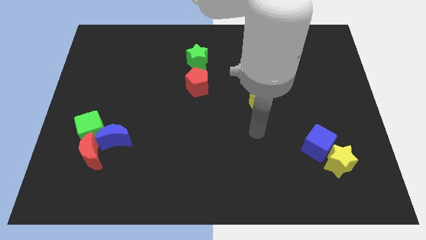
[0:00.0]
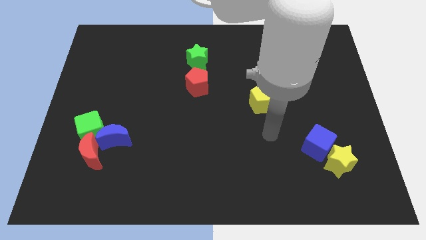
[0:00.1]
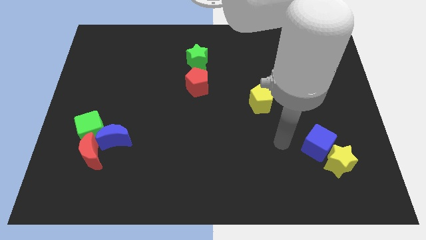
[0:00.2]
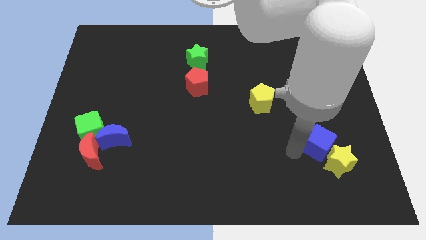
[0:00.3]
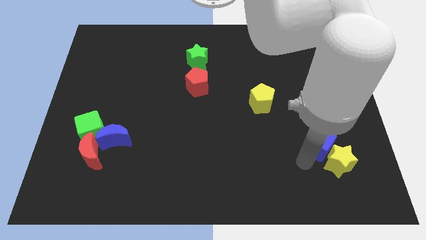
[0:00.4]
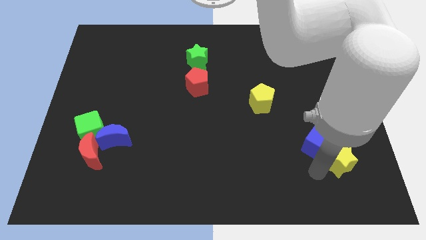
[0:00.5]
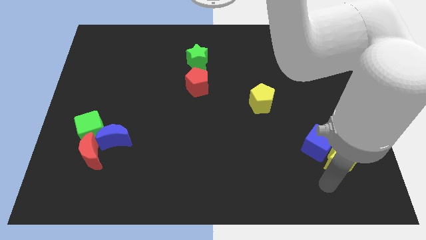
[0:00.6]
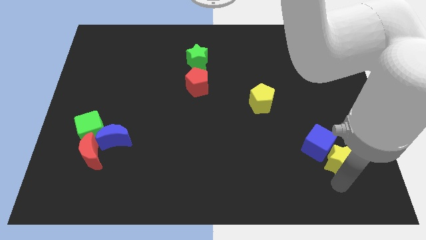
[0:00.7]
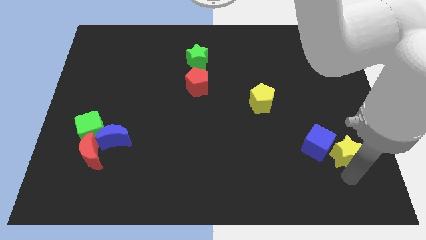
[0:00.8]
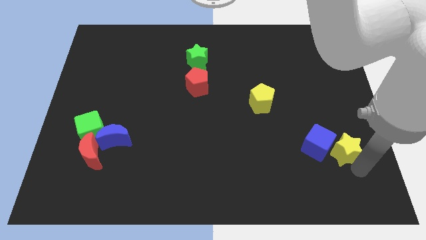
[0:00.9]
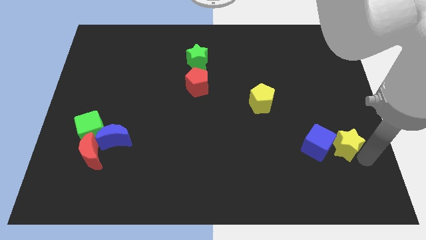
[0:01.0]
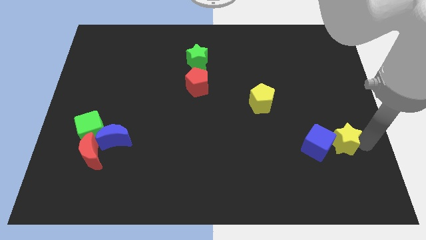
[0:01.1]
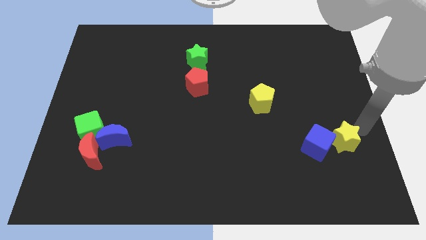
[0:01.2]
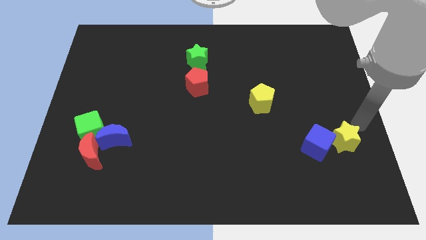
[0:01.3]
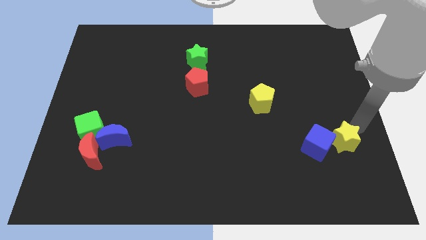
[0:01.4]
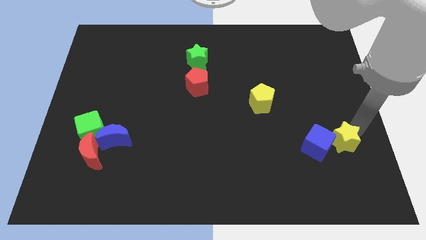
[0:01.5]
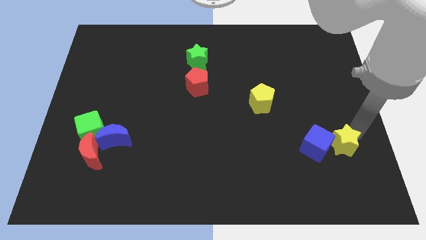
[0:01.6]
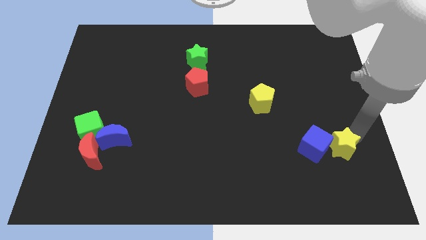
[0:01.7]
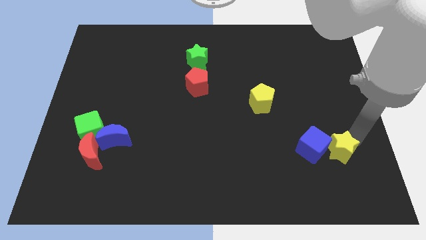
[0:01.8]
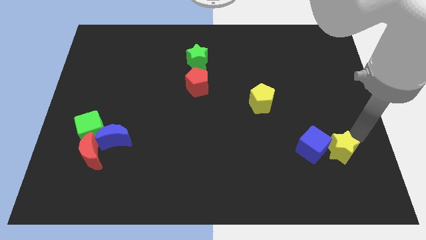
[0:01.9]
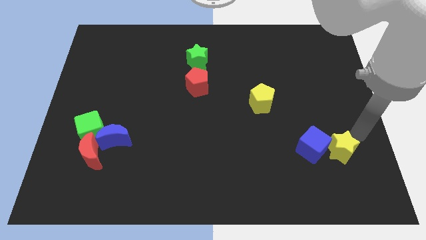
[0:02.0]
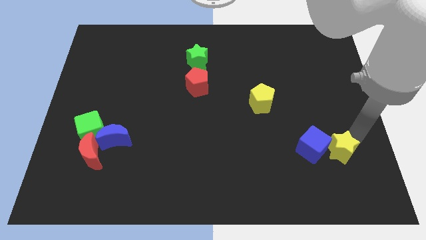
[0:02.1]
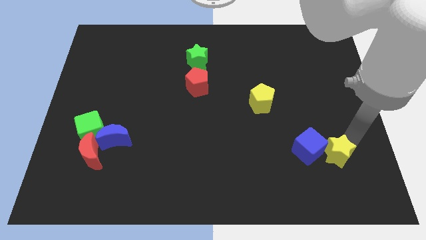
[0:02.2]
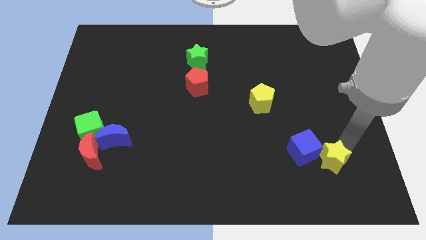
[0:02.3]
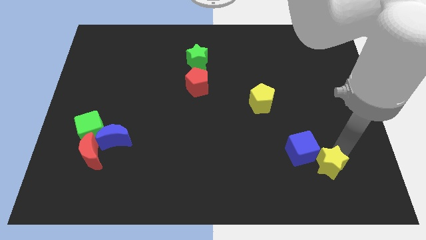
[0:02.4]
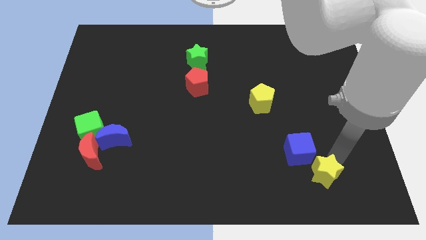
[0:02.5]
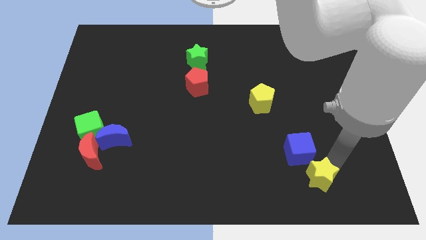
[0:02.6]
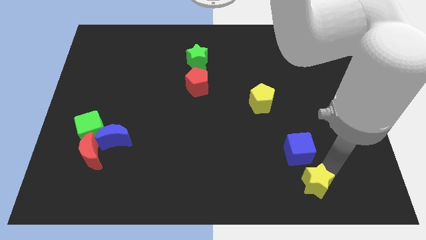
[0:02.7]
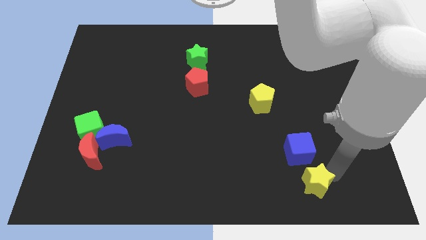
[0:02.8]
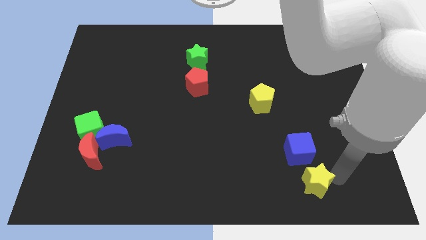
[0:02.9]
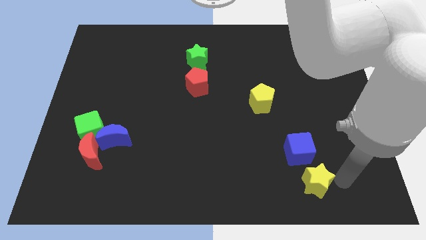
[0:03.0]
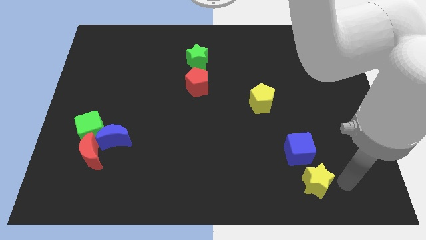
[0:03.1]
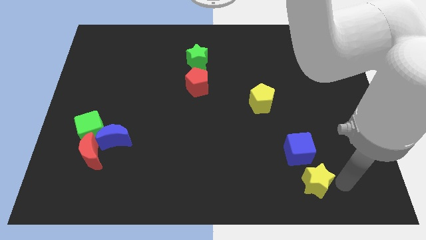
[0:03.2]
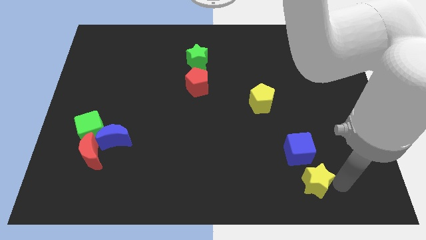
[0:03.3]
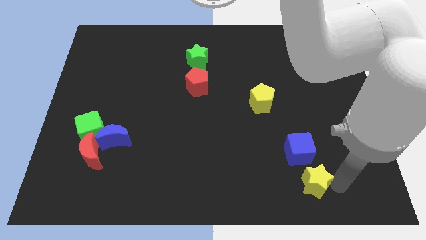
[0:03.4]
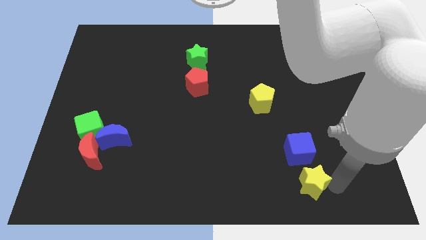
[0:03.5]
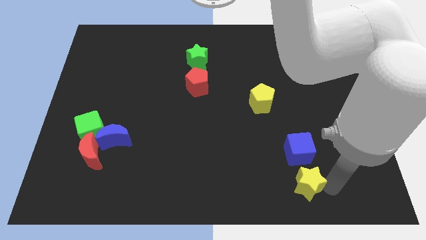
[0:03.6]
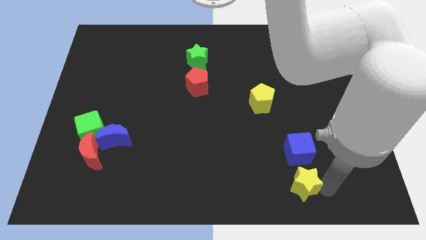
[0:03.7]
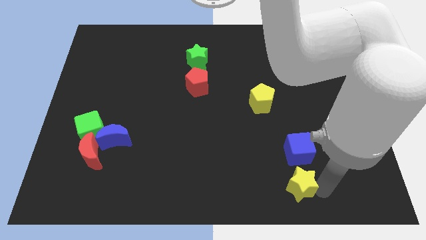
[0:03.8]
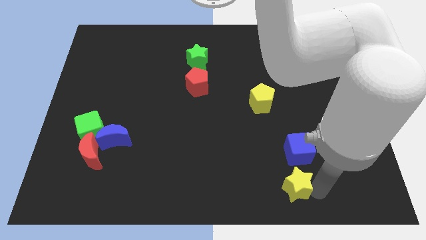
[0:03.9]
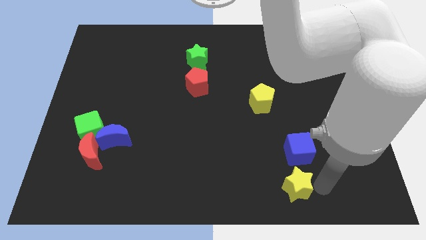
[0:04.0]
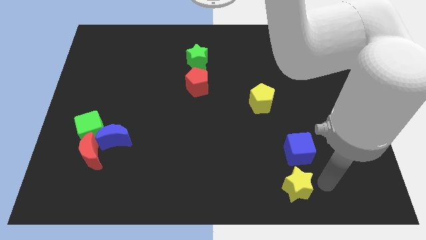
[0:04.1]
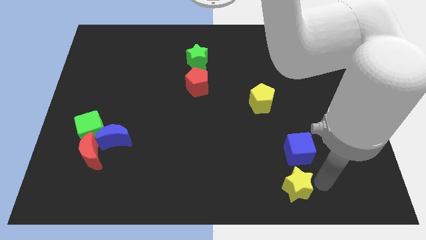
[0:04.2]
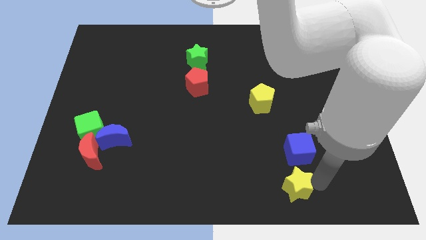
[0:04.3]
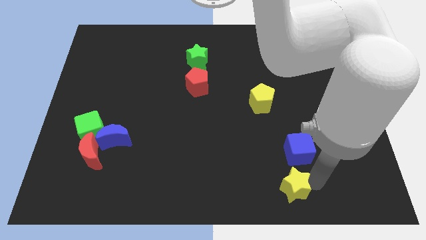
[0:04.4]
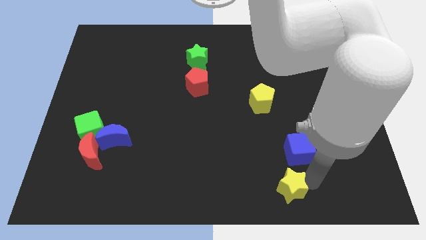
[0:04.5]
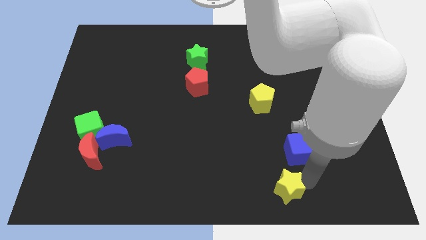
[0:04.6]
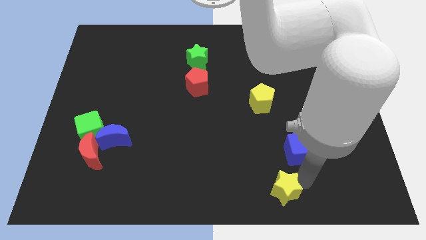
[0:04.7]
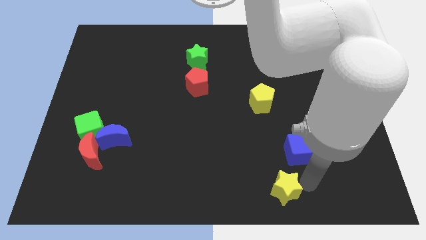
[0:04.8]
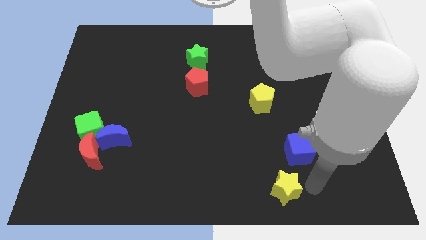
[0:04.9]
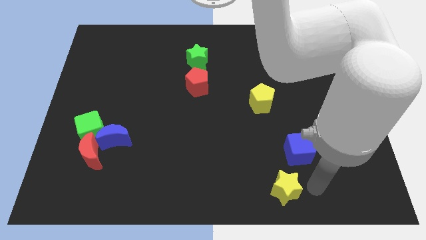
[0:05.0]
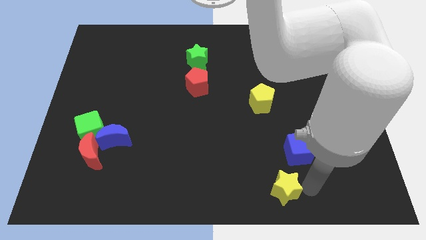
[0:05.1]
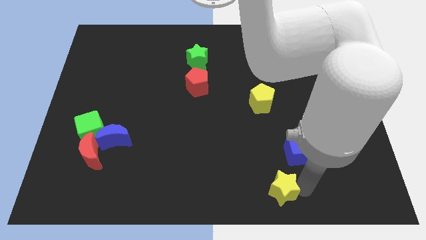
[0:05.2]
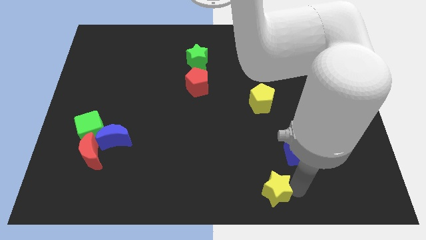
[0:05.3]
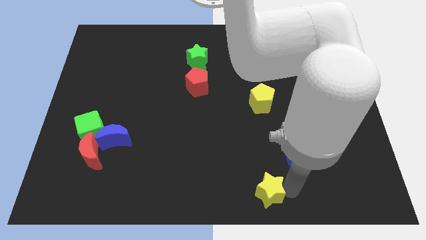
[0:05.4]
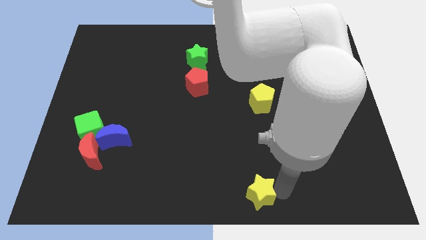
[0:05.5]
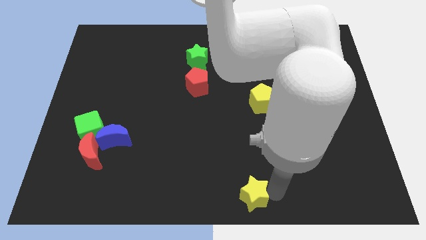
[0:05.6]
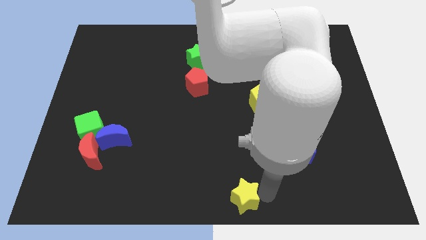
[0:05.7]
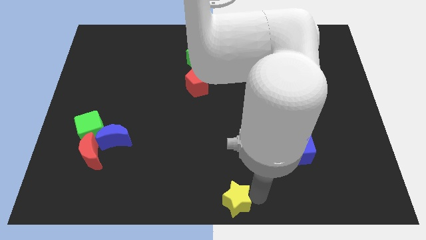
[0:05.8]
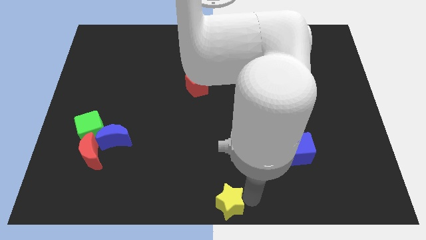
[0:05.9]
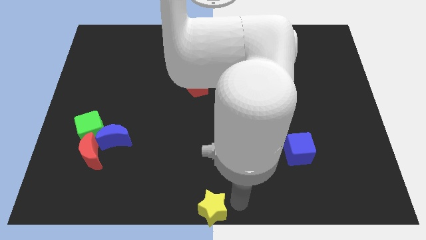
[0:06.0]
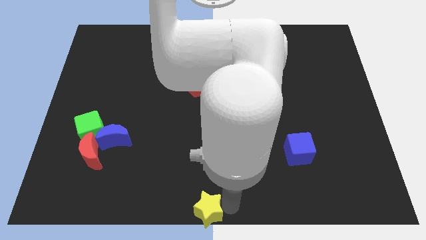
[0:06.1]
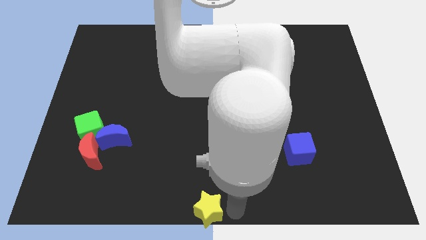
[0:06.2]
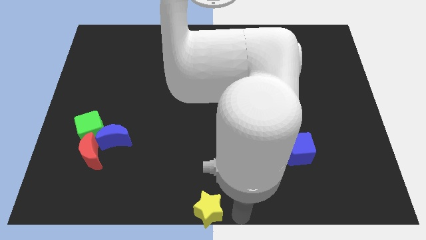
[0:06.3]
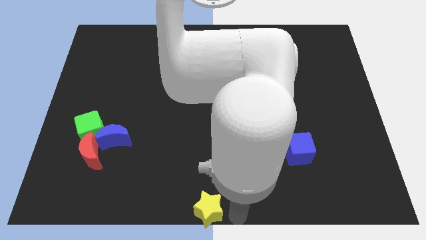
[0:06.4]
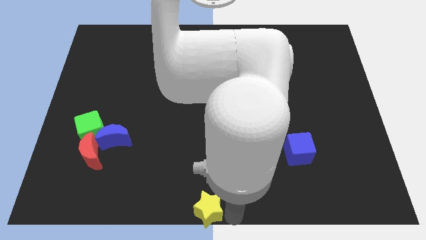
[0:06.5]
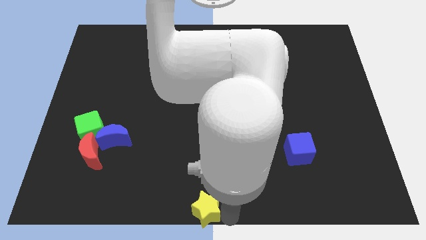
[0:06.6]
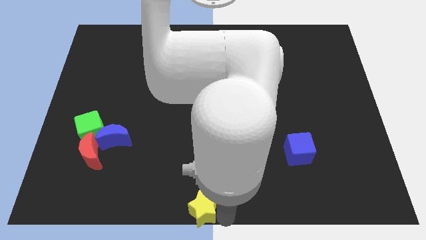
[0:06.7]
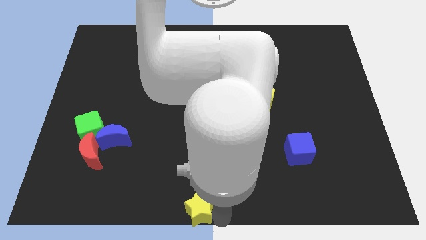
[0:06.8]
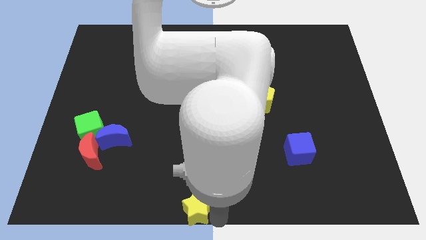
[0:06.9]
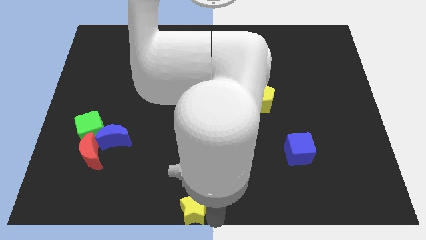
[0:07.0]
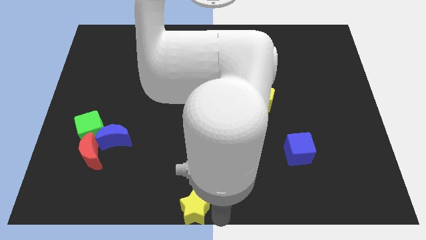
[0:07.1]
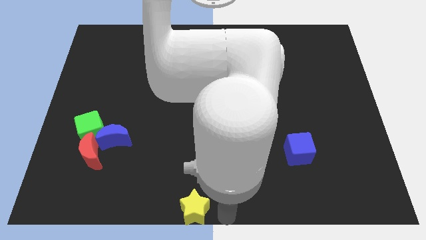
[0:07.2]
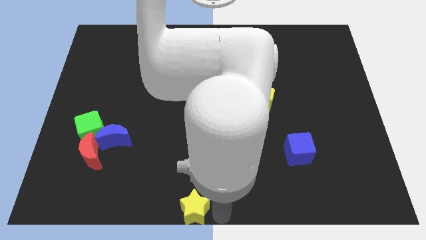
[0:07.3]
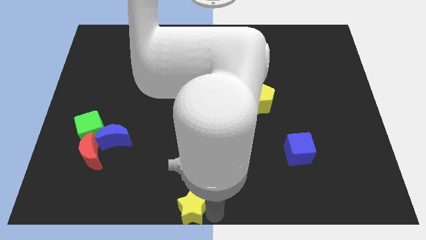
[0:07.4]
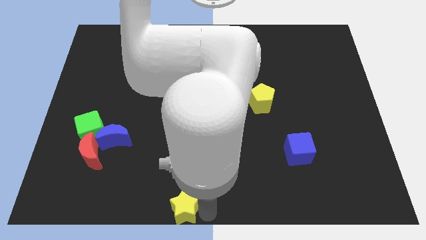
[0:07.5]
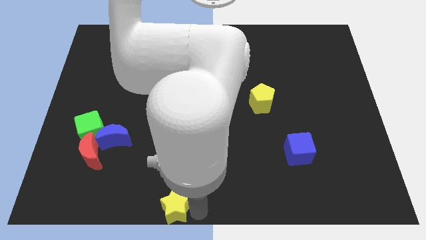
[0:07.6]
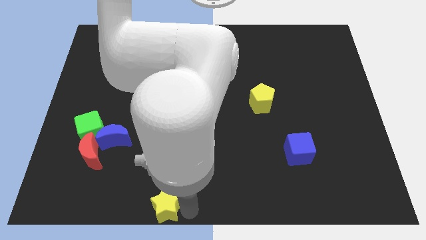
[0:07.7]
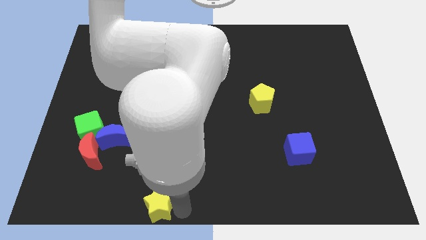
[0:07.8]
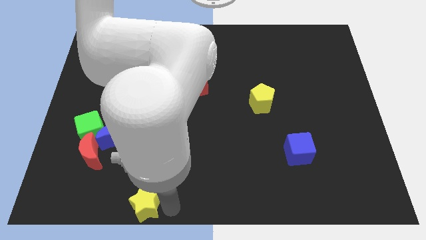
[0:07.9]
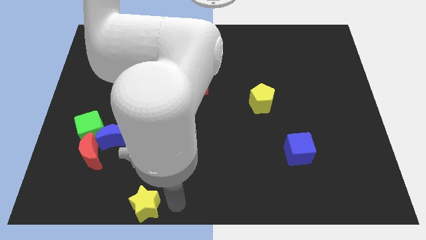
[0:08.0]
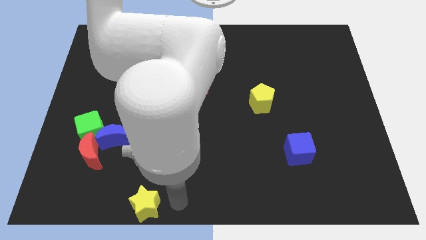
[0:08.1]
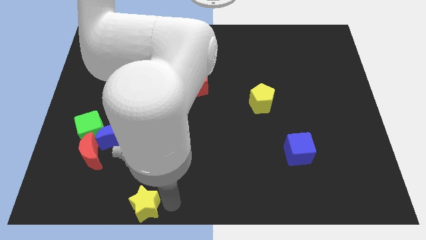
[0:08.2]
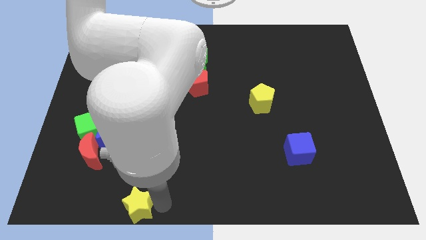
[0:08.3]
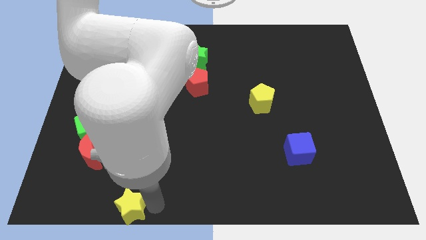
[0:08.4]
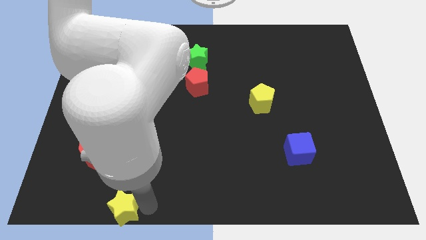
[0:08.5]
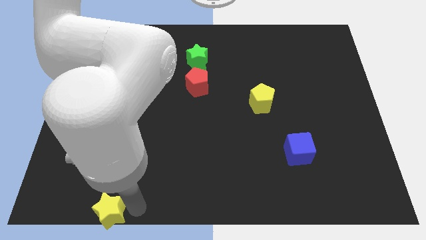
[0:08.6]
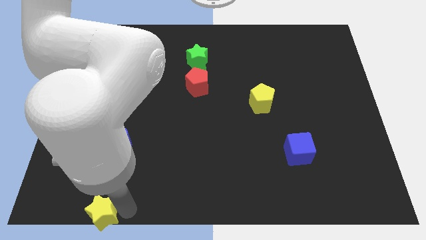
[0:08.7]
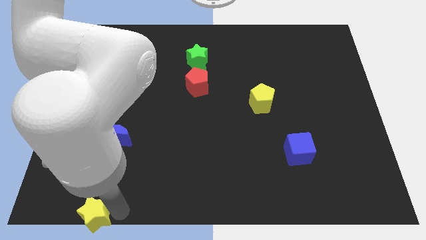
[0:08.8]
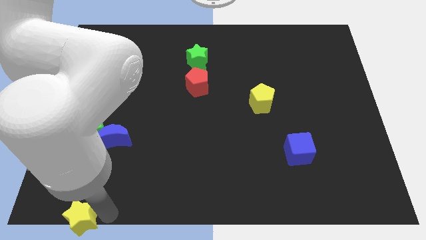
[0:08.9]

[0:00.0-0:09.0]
move the yellow star to the bottom left corner
